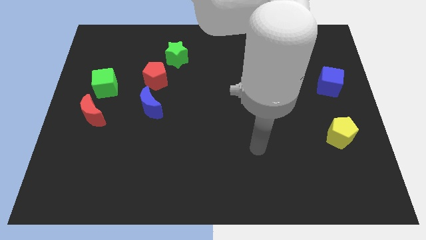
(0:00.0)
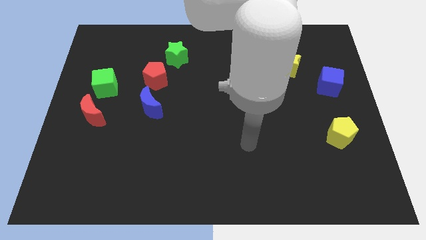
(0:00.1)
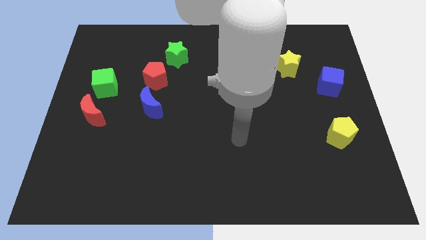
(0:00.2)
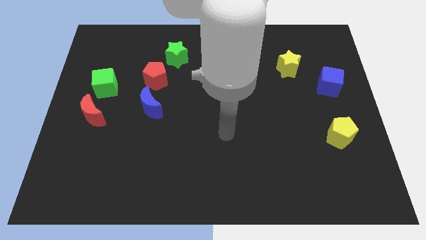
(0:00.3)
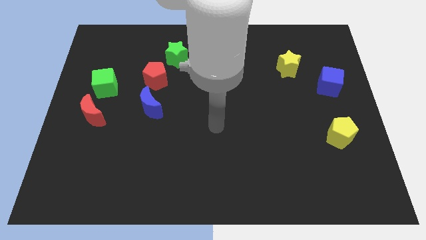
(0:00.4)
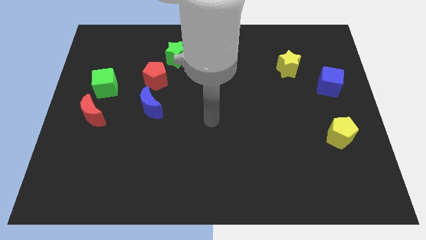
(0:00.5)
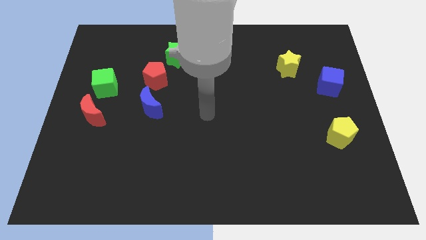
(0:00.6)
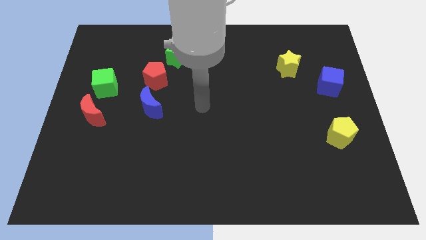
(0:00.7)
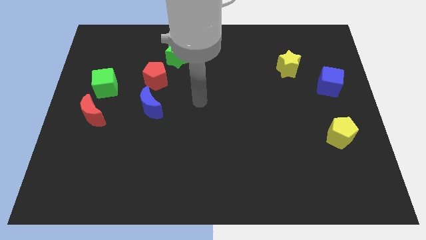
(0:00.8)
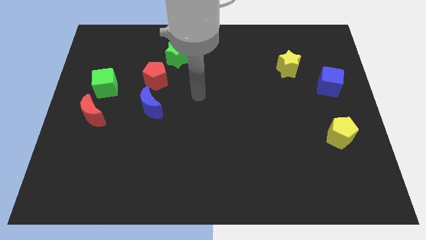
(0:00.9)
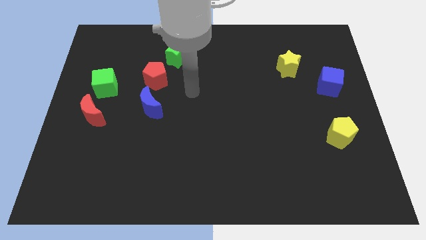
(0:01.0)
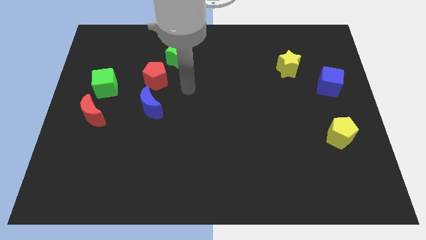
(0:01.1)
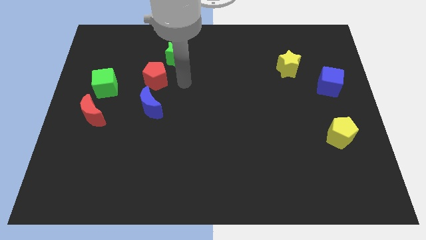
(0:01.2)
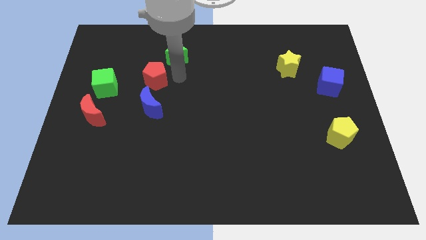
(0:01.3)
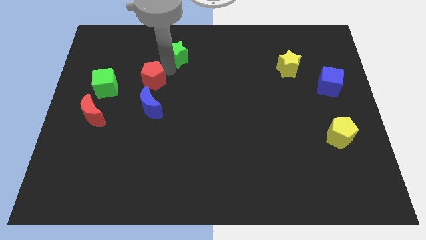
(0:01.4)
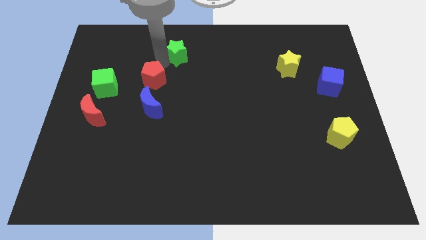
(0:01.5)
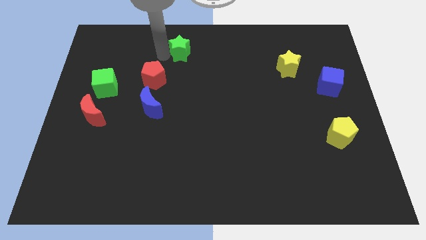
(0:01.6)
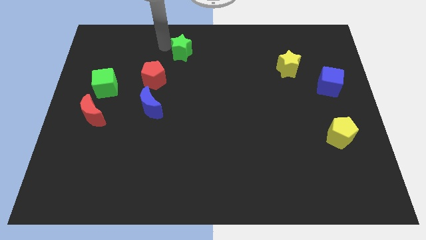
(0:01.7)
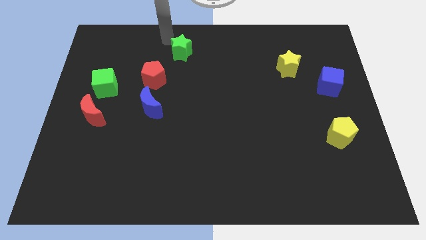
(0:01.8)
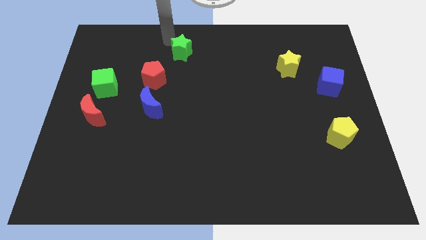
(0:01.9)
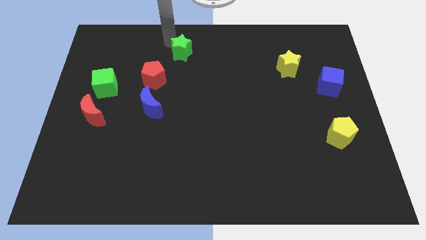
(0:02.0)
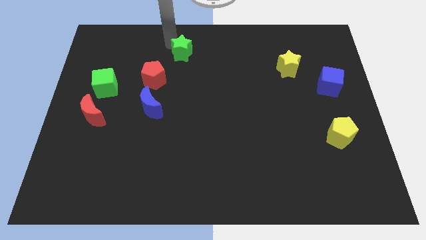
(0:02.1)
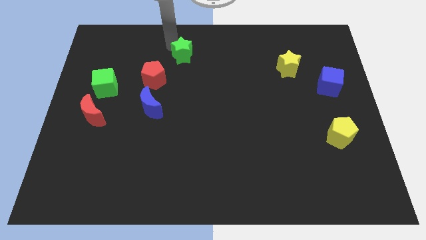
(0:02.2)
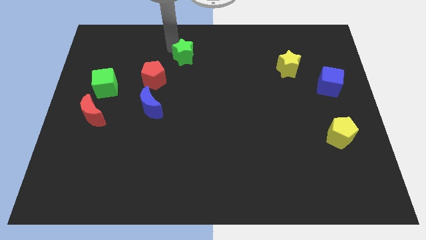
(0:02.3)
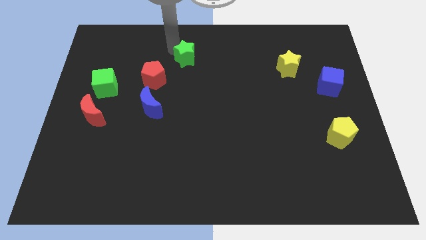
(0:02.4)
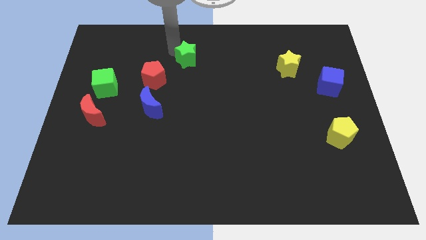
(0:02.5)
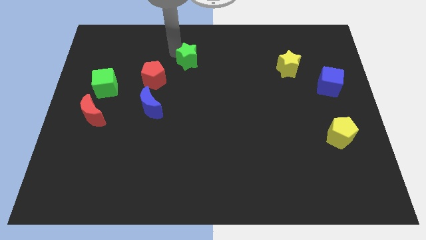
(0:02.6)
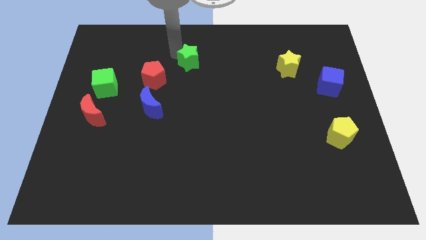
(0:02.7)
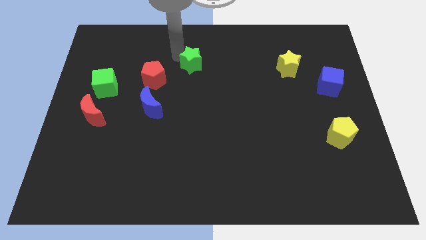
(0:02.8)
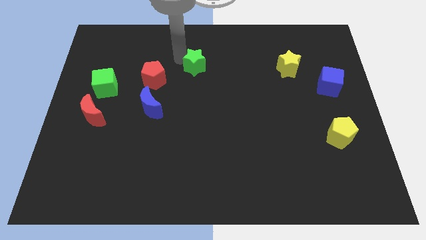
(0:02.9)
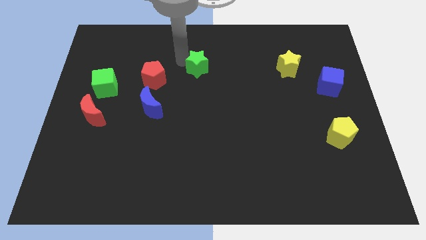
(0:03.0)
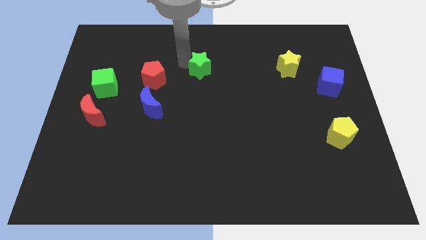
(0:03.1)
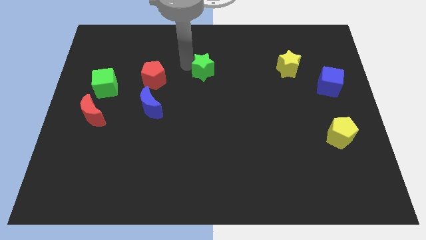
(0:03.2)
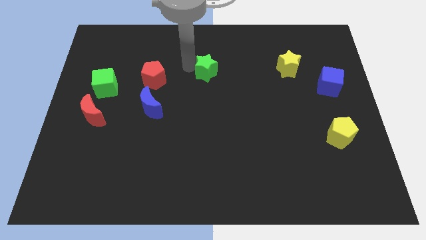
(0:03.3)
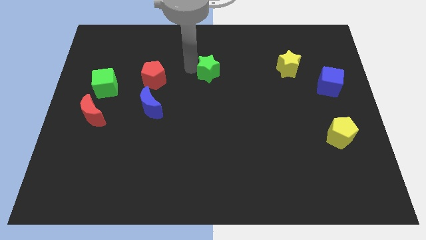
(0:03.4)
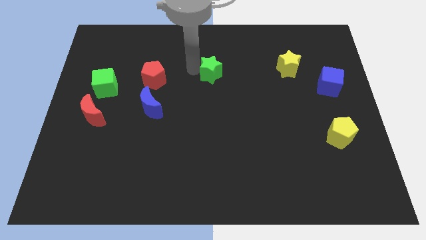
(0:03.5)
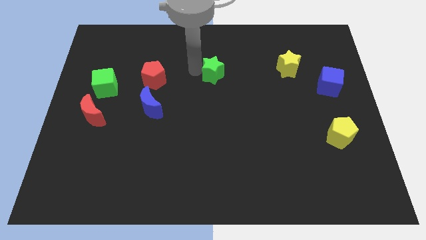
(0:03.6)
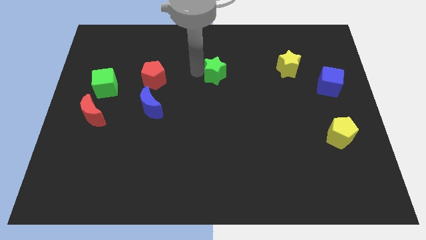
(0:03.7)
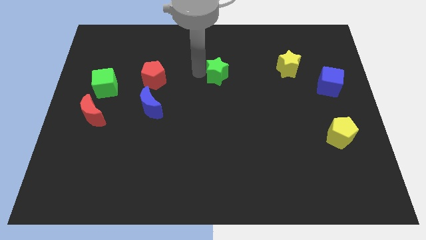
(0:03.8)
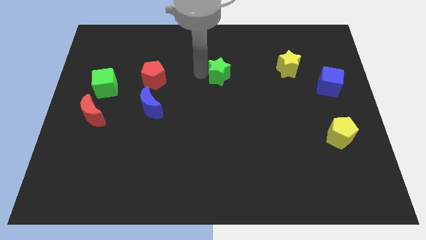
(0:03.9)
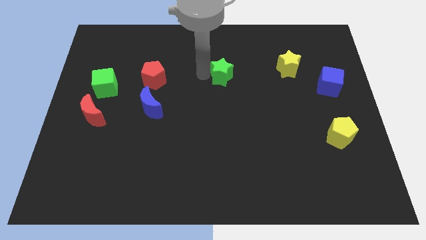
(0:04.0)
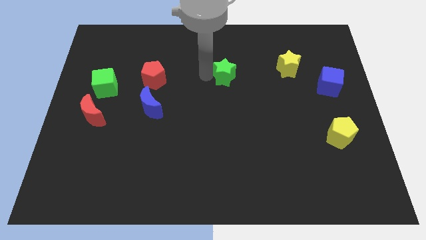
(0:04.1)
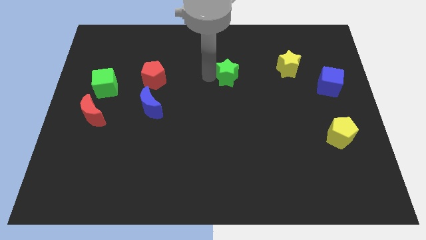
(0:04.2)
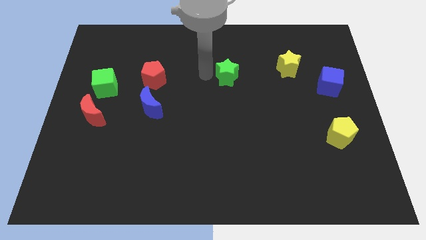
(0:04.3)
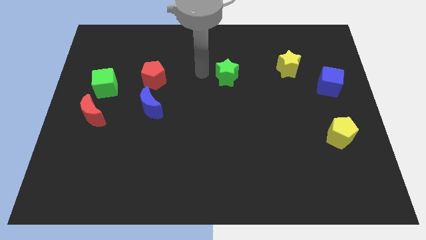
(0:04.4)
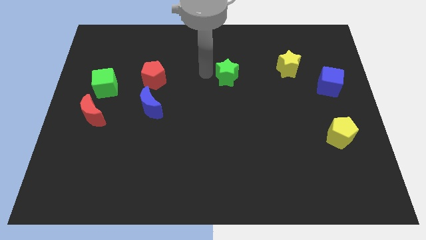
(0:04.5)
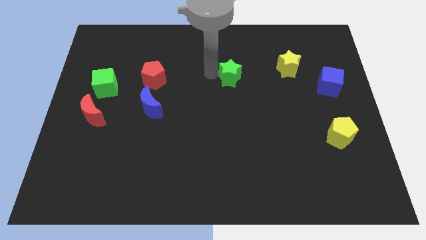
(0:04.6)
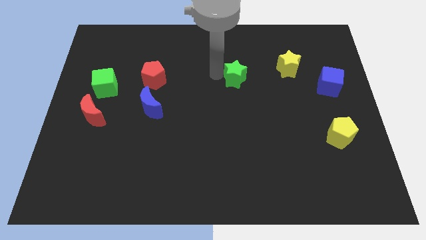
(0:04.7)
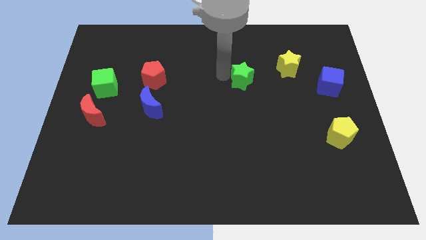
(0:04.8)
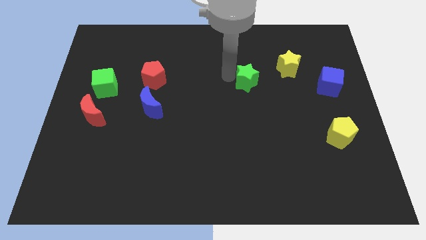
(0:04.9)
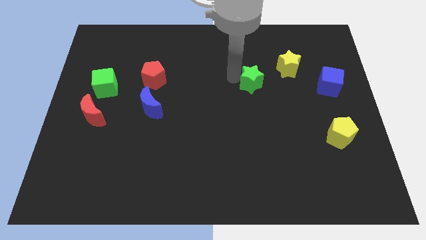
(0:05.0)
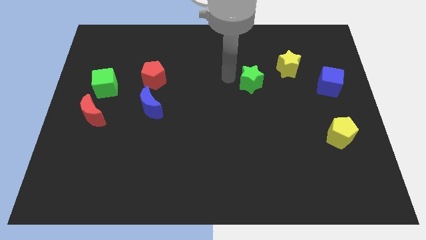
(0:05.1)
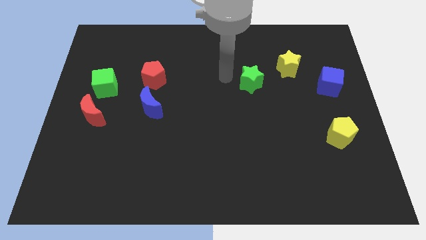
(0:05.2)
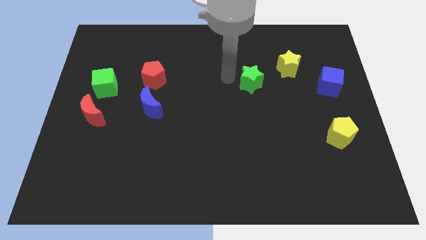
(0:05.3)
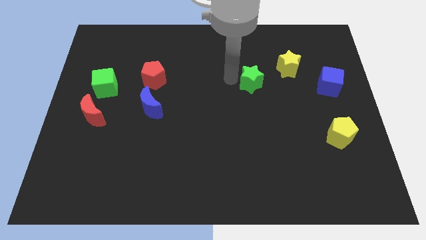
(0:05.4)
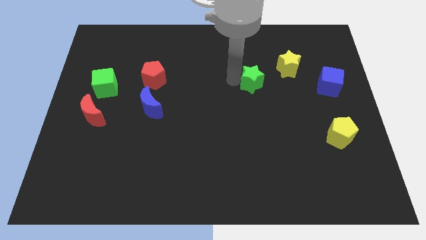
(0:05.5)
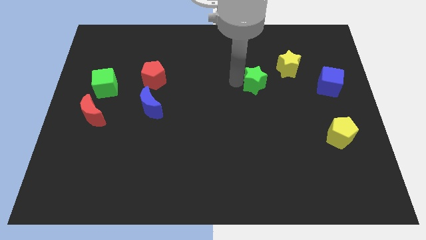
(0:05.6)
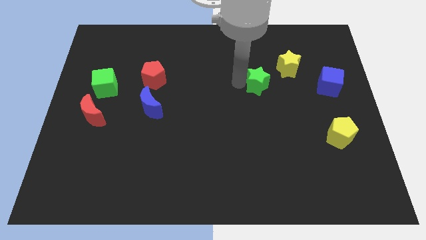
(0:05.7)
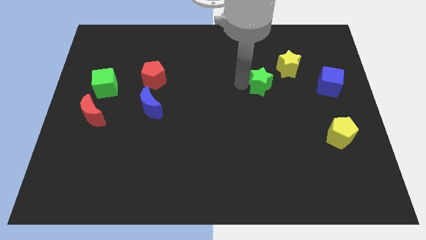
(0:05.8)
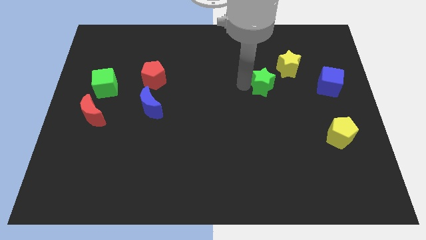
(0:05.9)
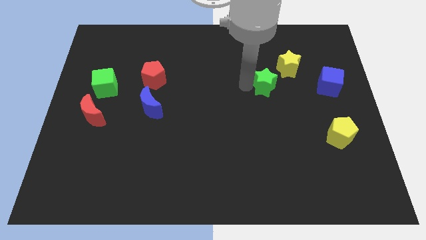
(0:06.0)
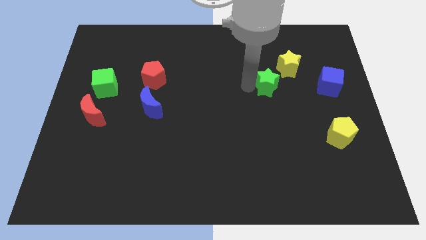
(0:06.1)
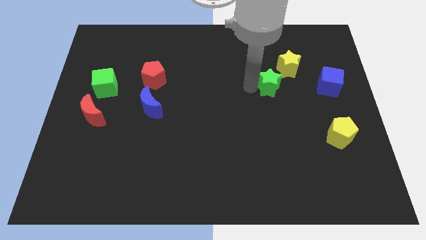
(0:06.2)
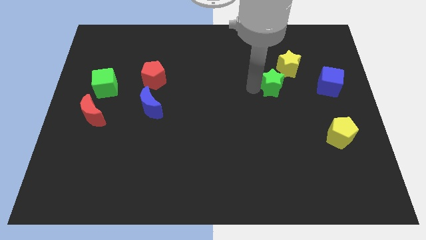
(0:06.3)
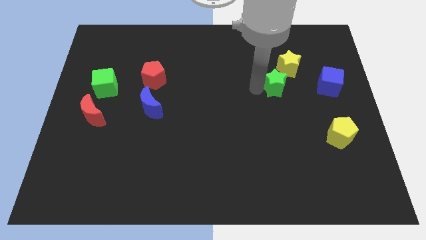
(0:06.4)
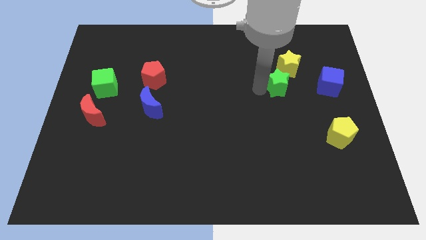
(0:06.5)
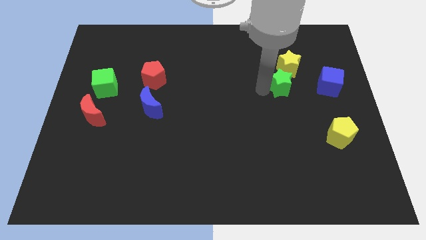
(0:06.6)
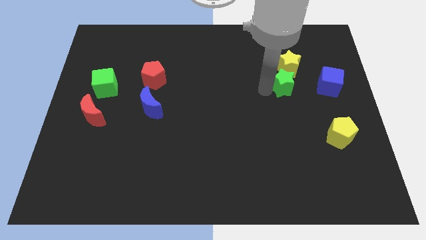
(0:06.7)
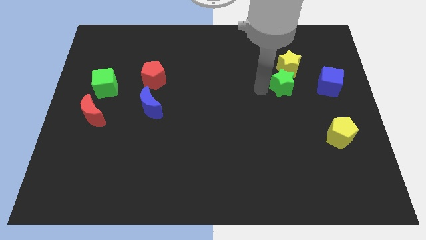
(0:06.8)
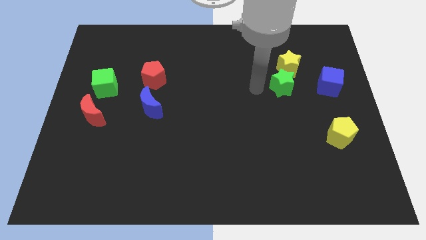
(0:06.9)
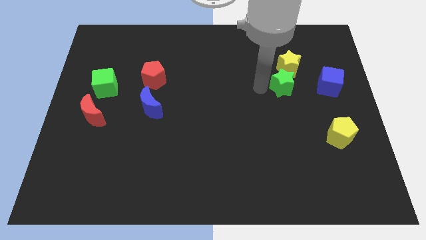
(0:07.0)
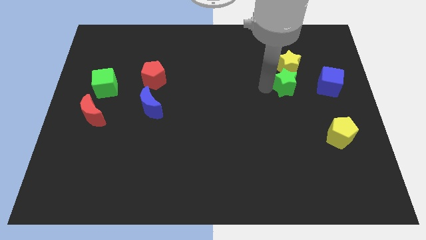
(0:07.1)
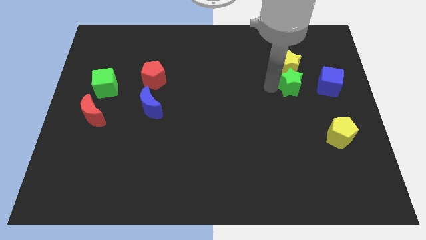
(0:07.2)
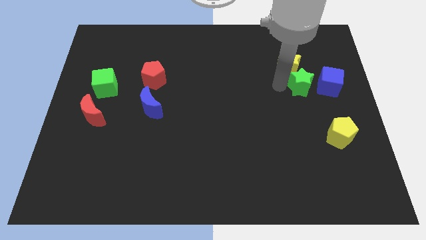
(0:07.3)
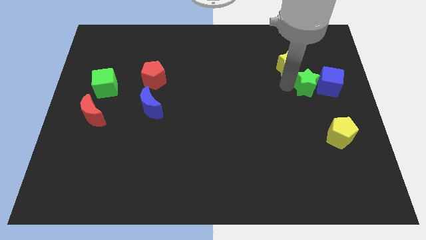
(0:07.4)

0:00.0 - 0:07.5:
move the green star to the blue cube
